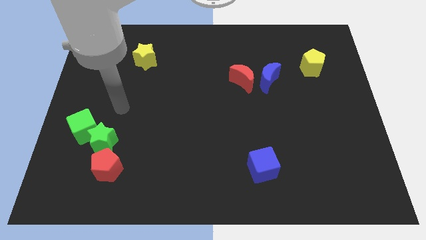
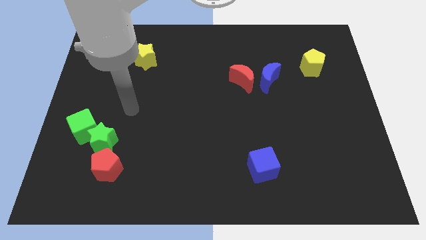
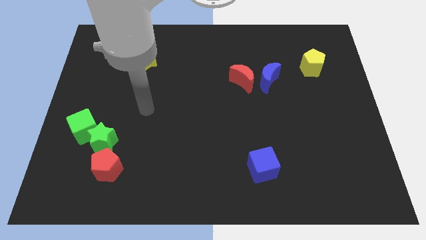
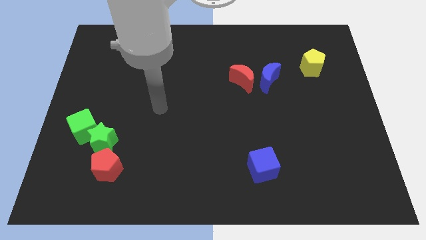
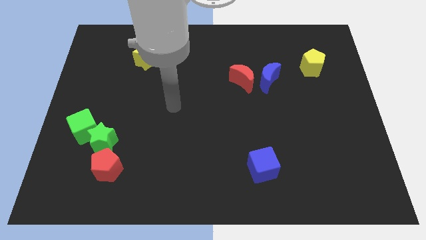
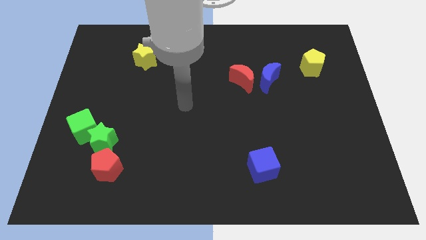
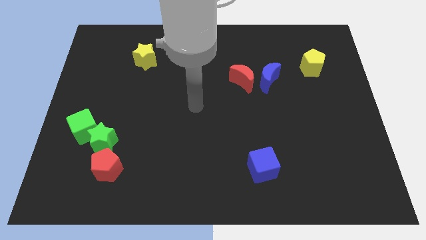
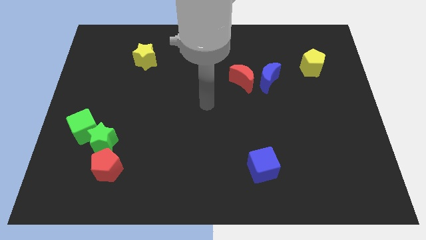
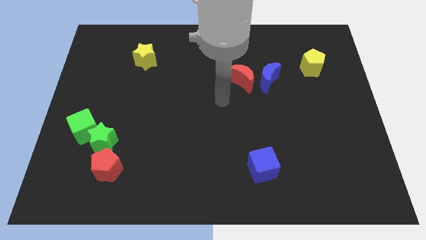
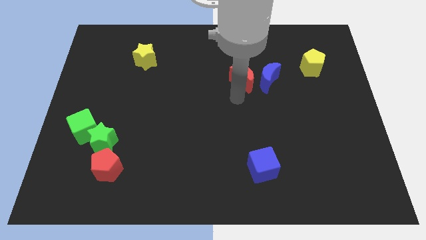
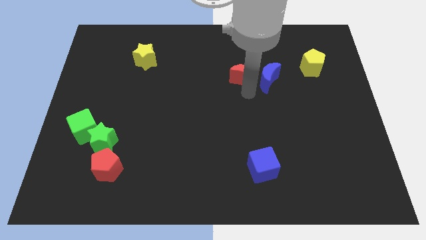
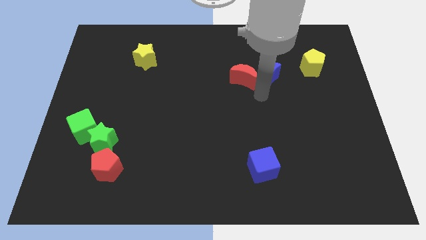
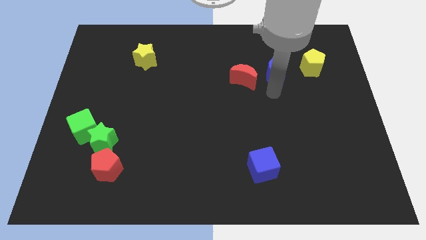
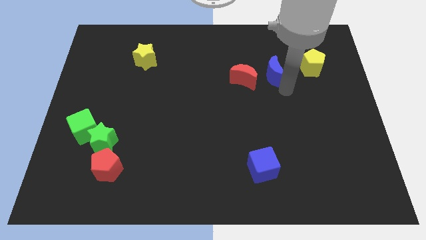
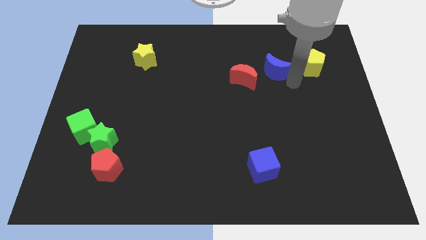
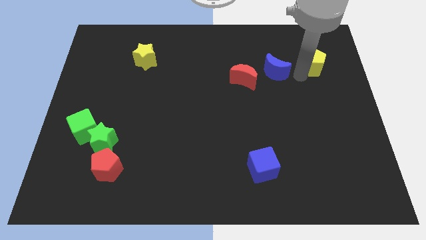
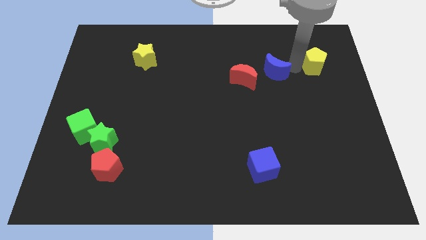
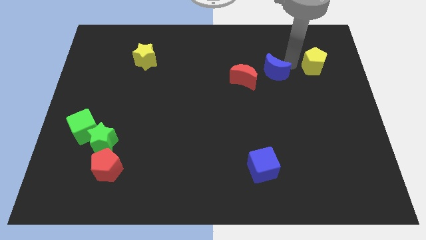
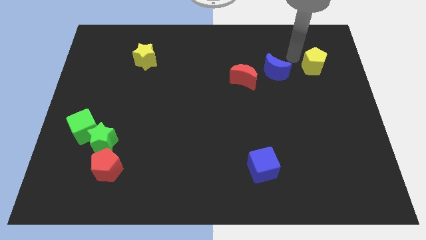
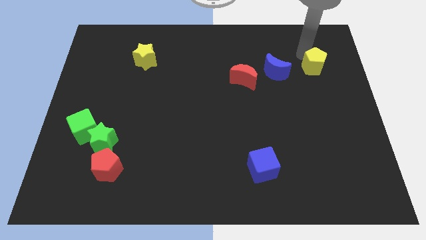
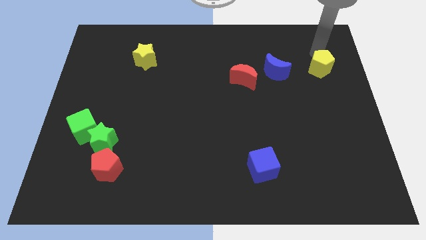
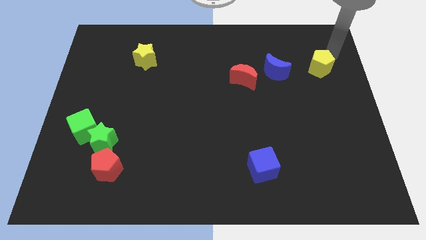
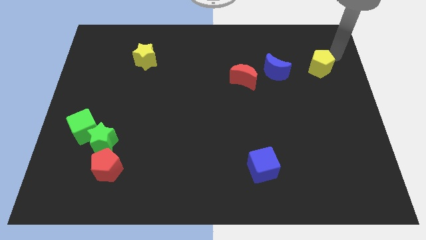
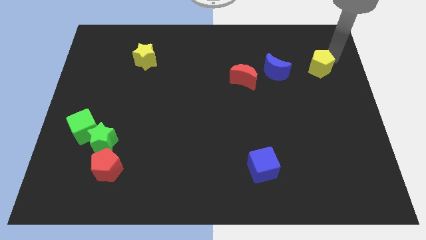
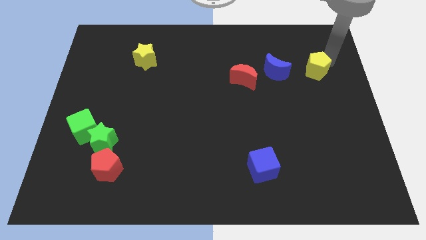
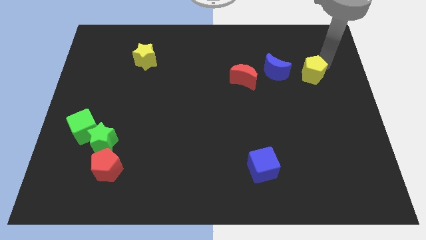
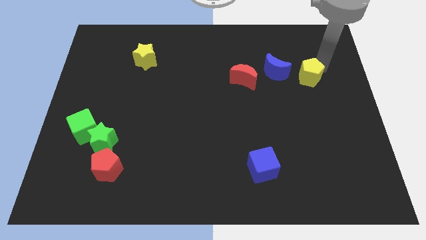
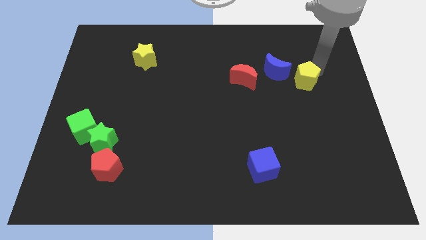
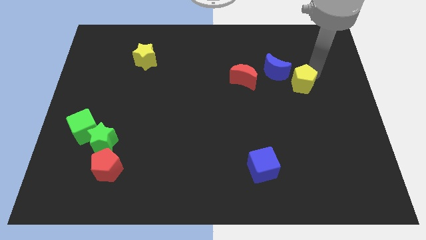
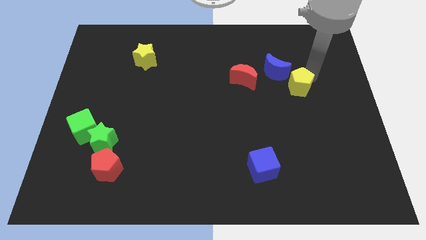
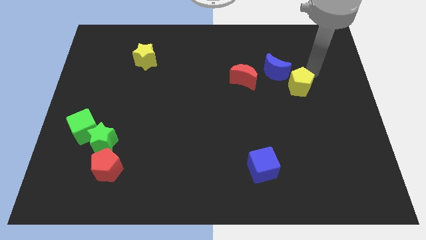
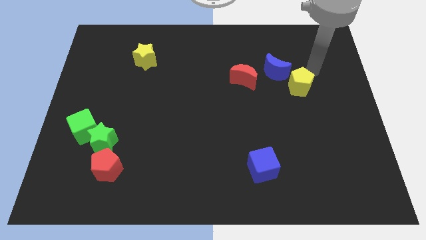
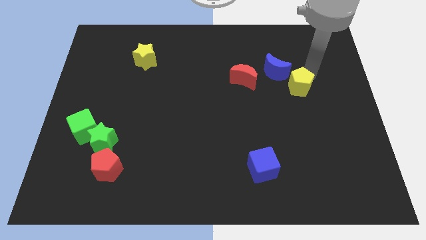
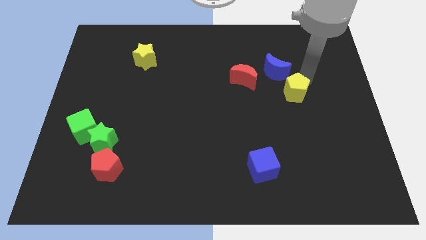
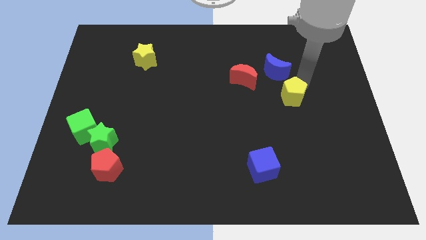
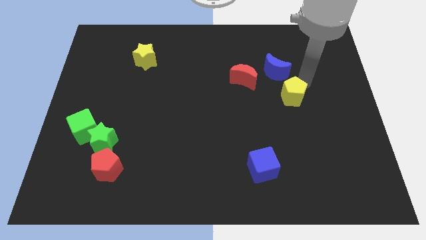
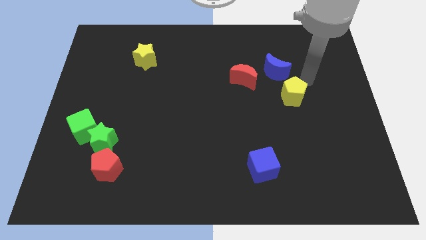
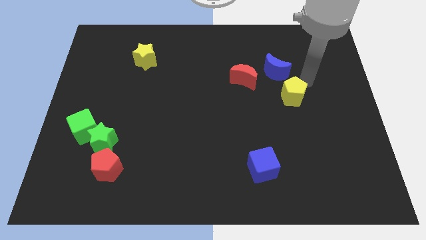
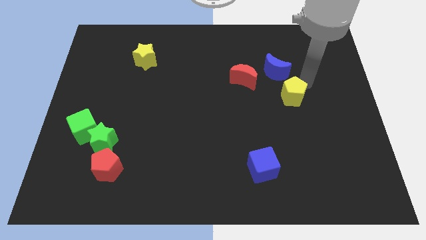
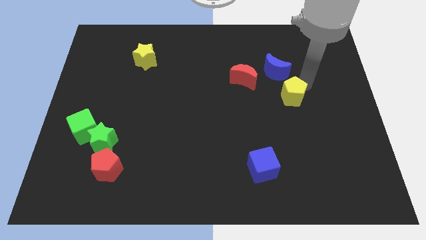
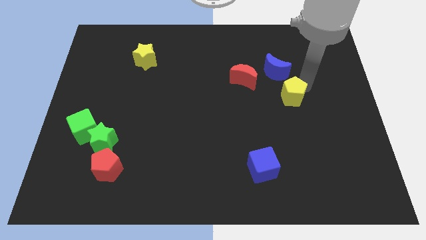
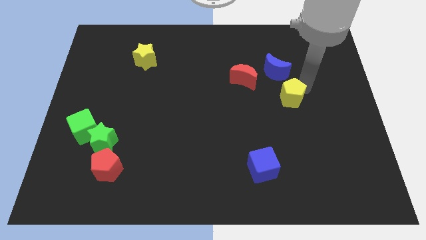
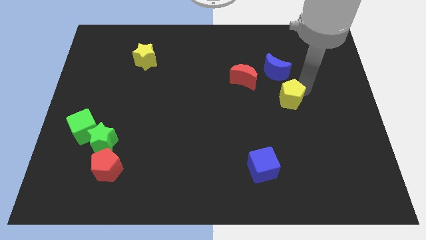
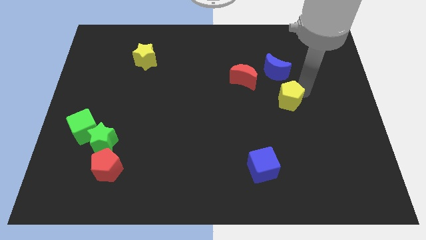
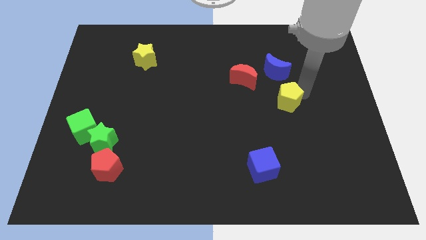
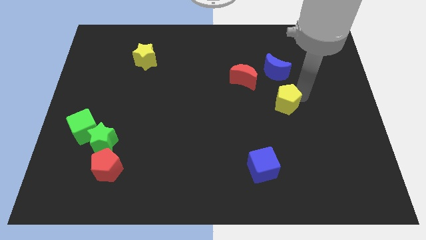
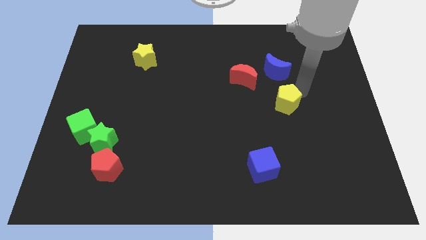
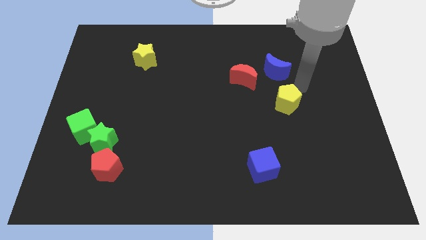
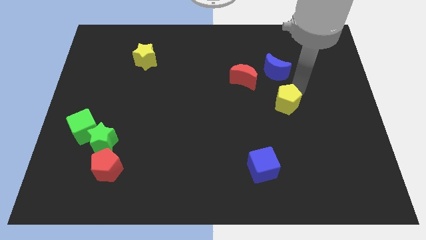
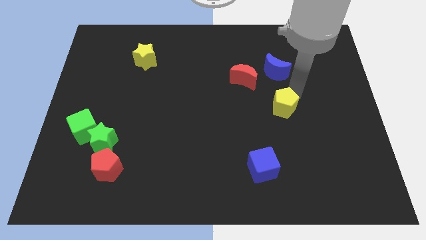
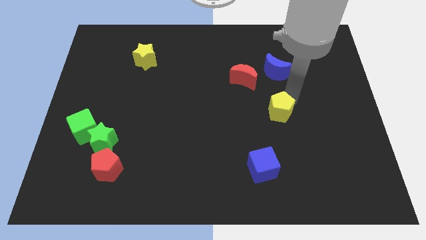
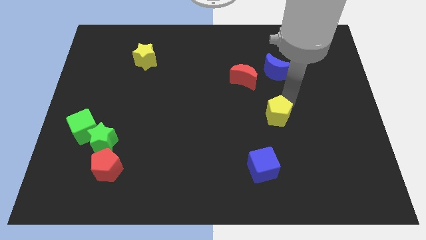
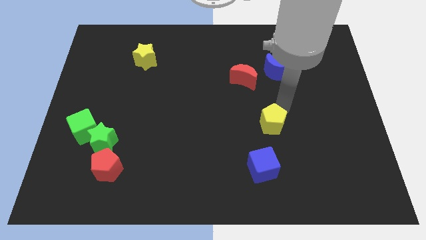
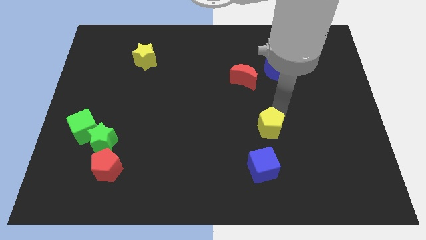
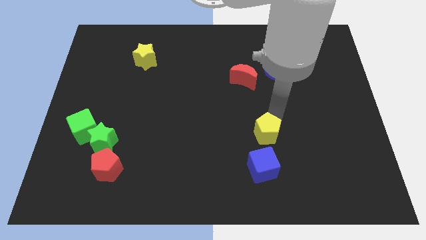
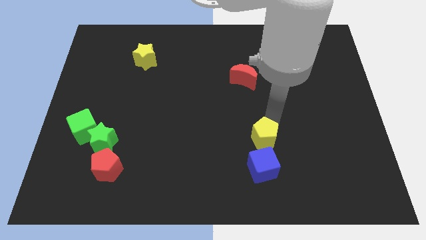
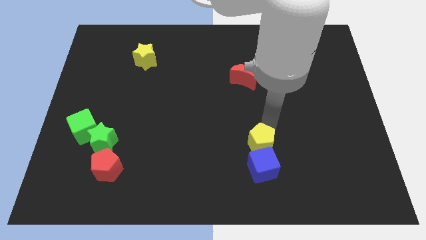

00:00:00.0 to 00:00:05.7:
slide the yellow pentagon close to the blue cube

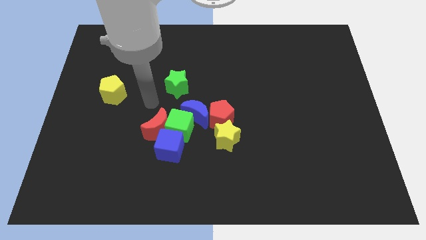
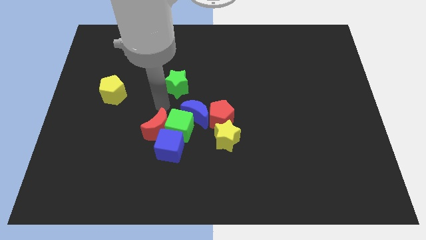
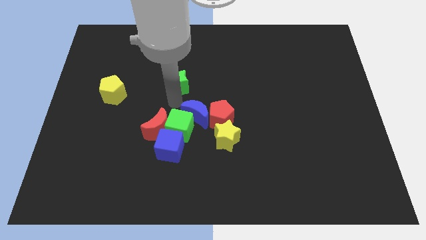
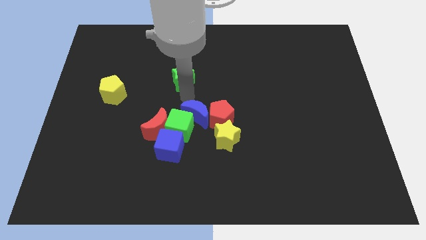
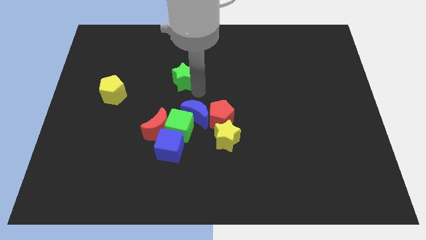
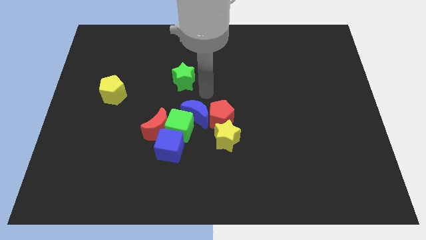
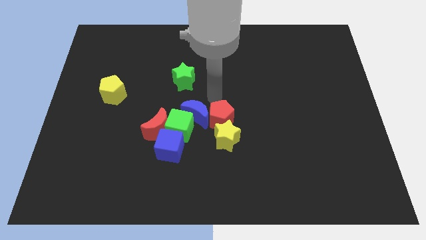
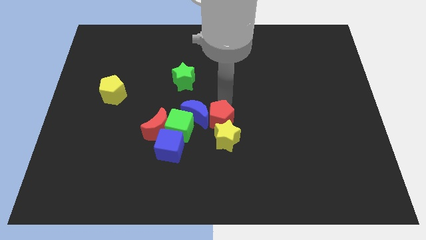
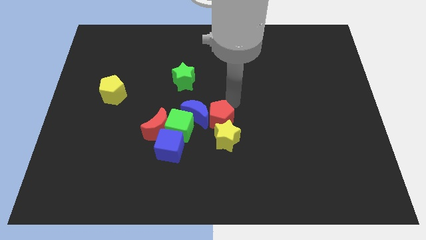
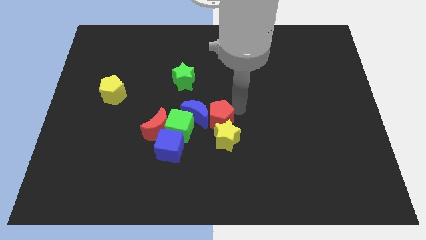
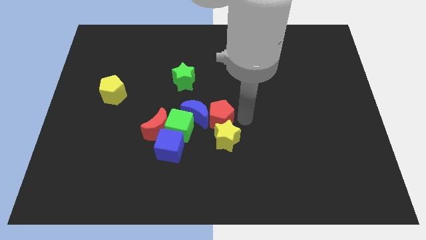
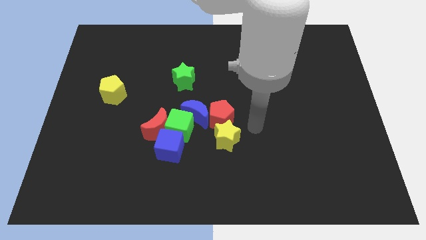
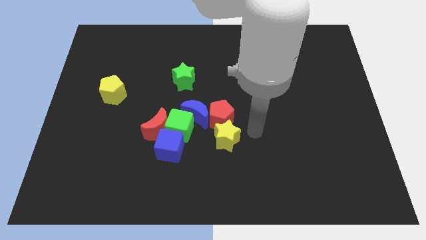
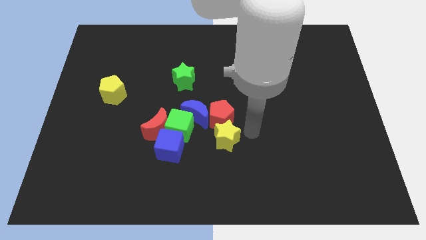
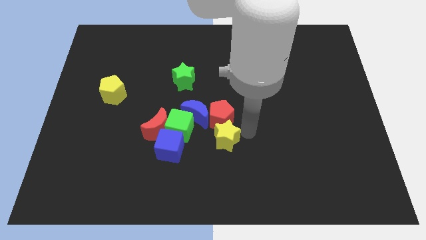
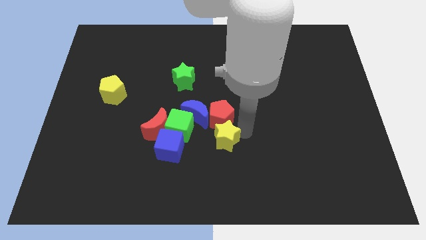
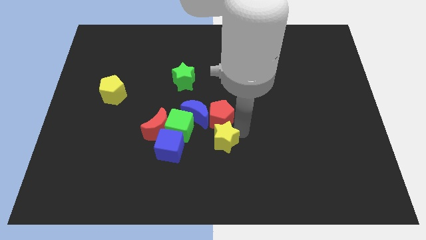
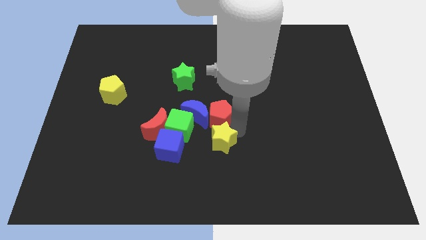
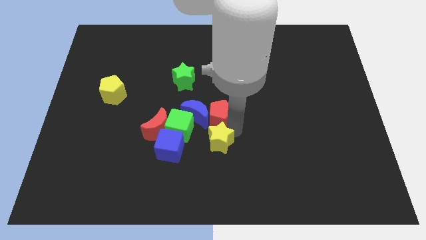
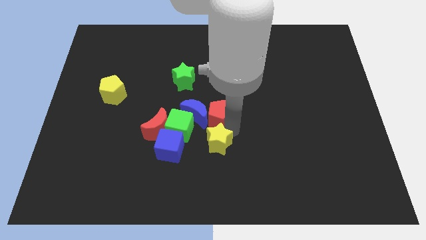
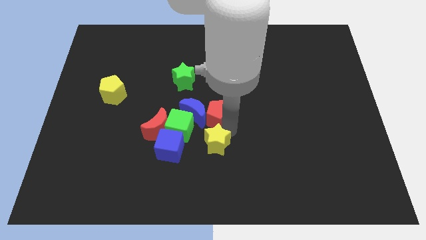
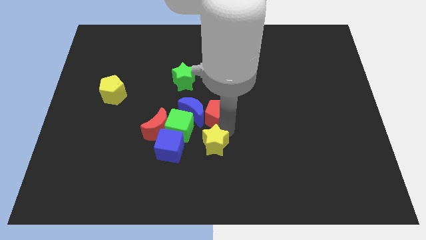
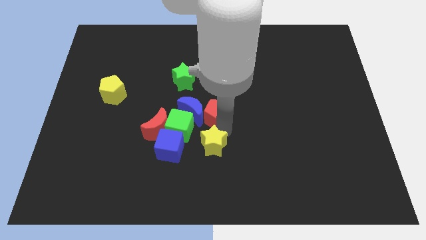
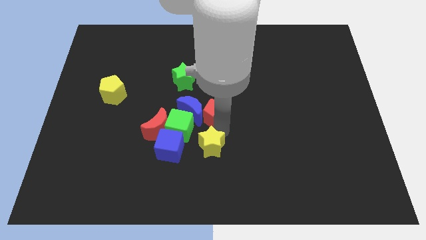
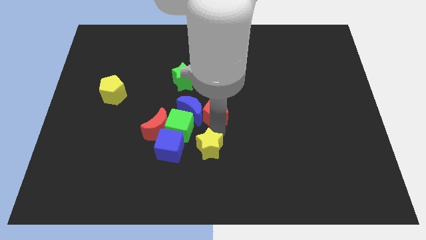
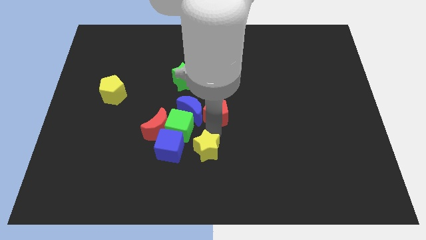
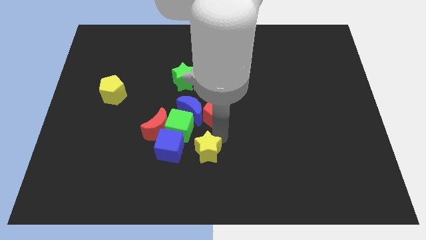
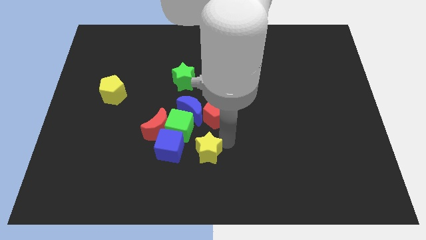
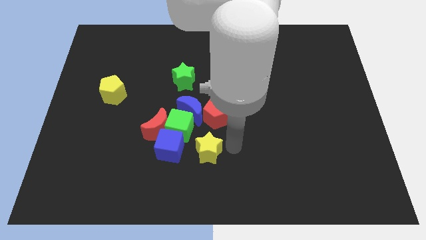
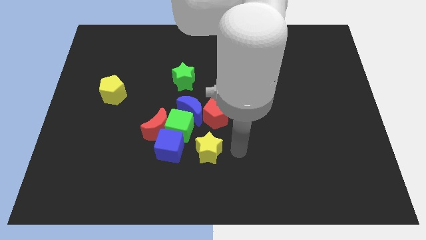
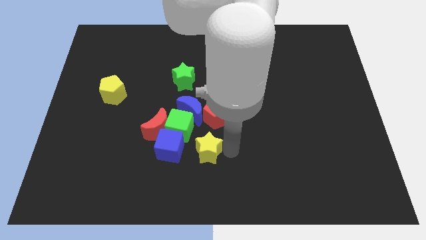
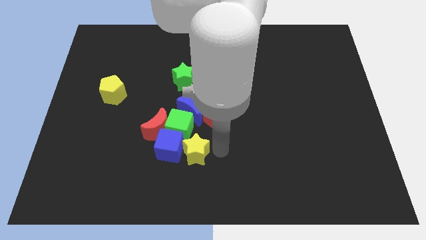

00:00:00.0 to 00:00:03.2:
put the yellow star close to the blue cube
